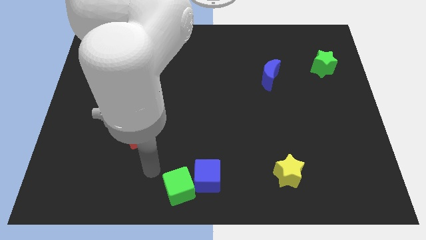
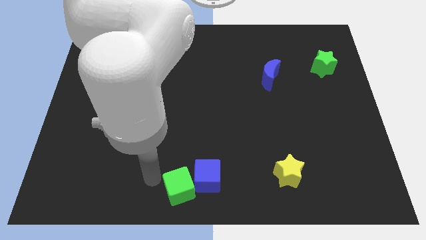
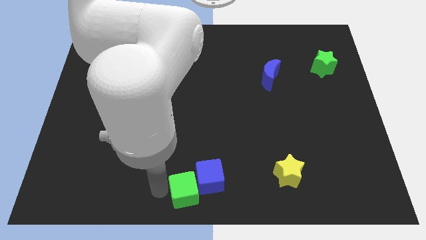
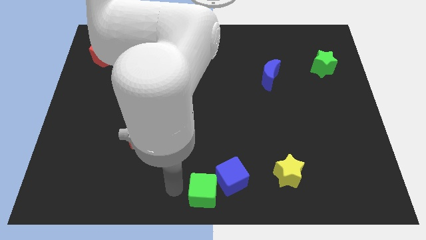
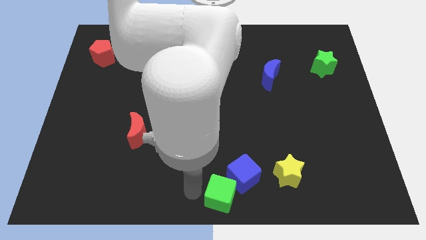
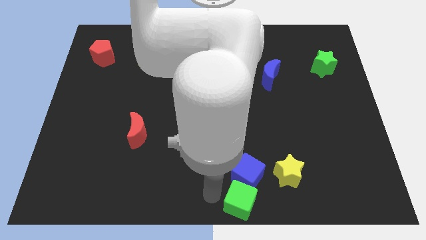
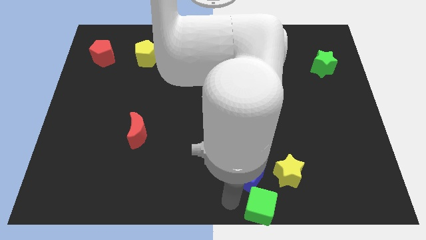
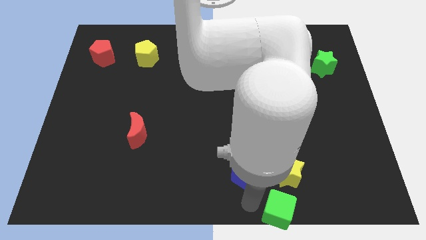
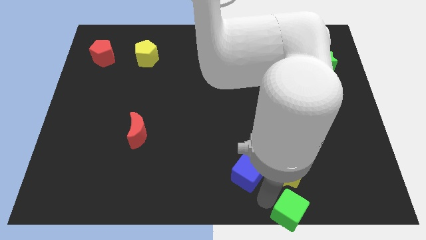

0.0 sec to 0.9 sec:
move the blue cube away from the green cube

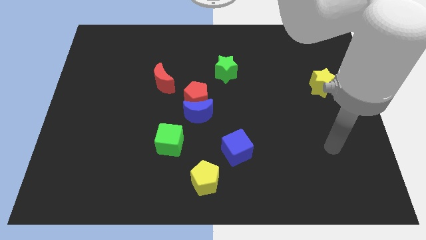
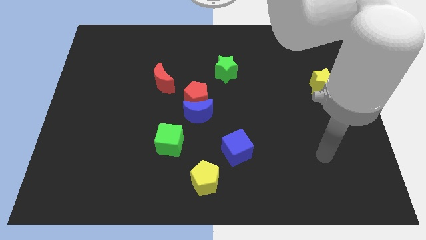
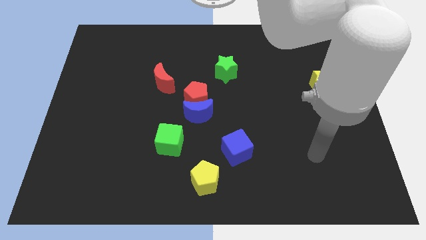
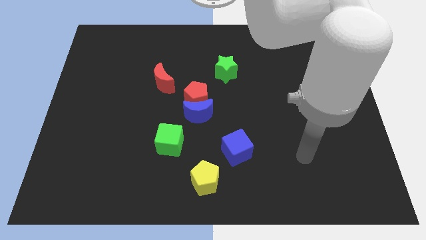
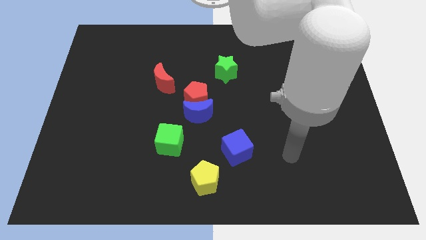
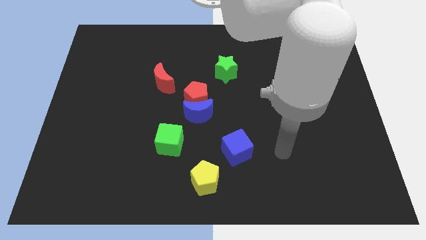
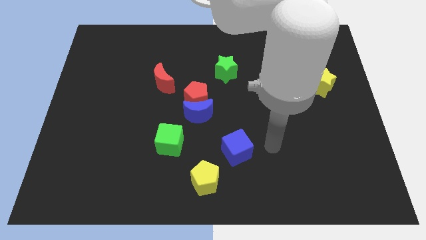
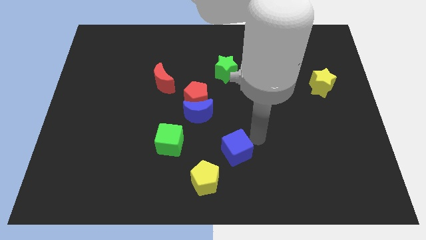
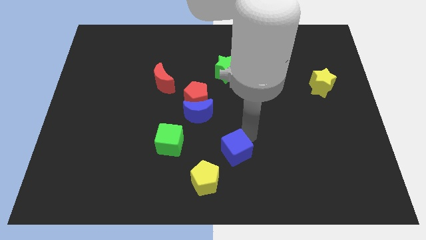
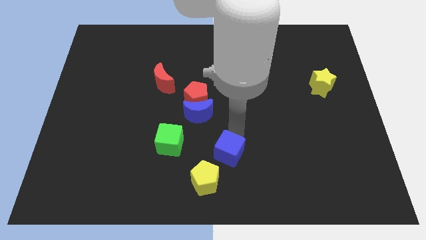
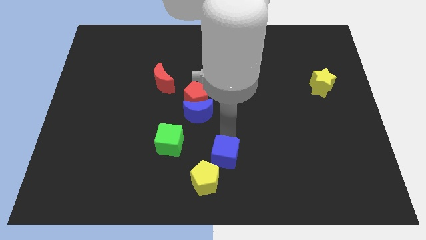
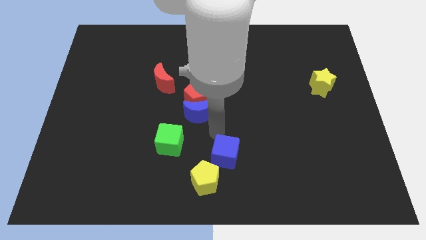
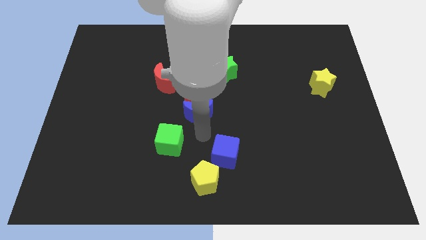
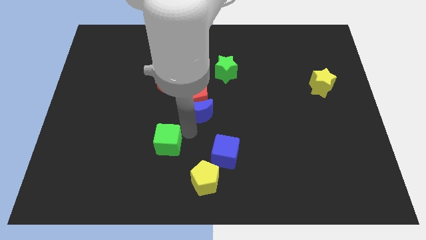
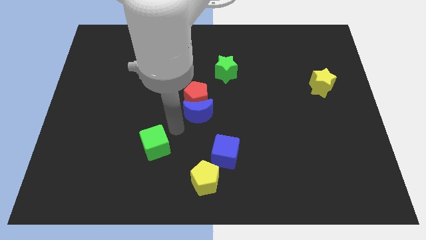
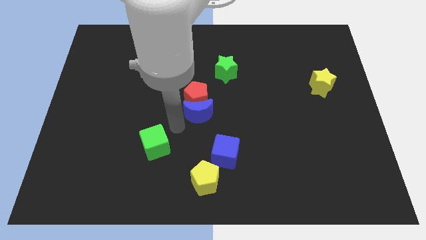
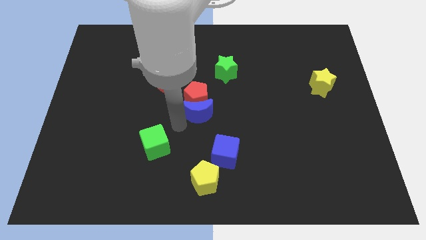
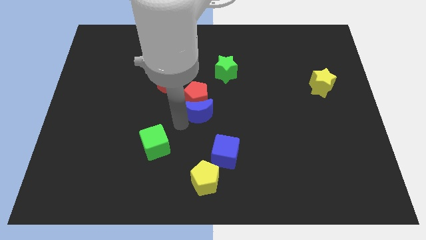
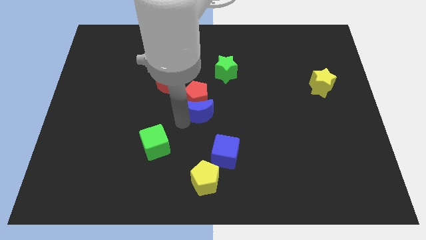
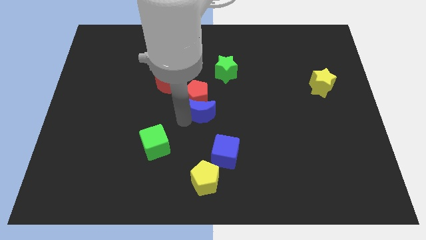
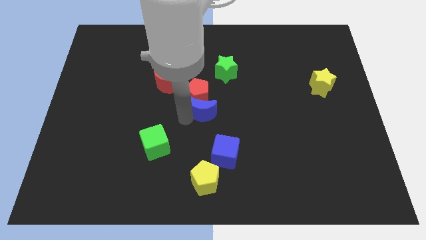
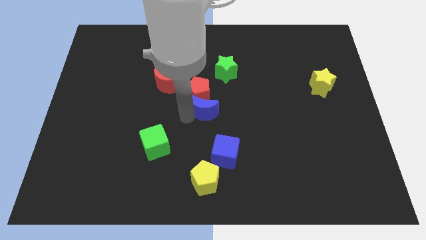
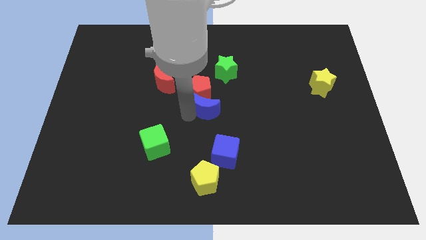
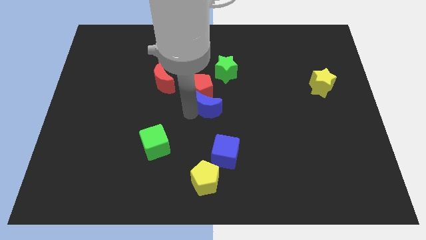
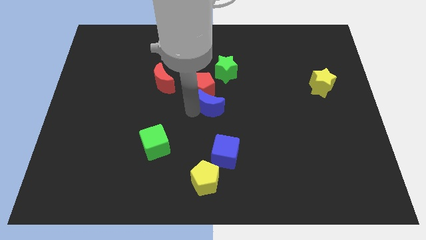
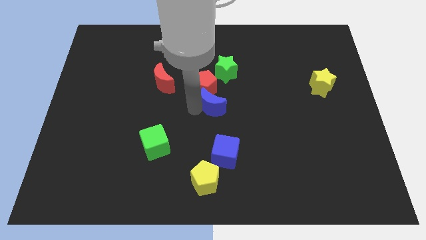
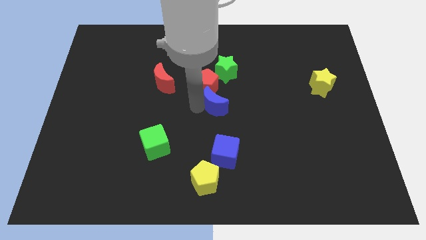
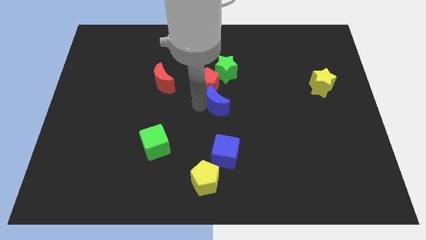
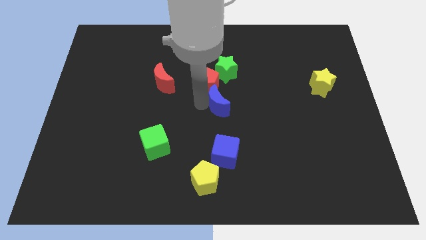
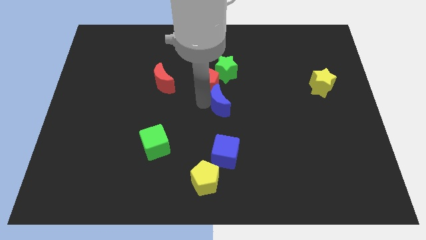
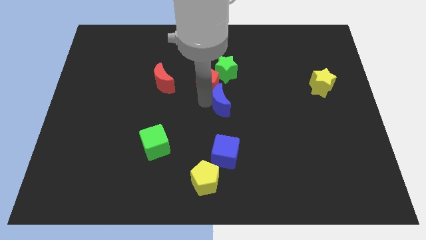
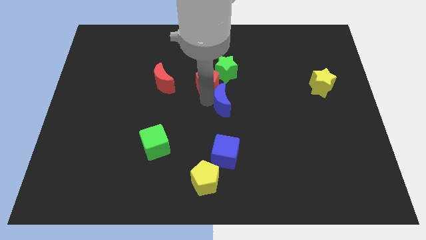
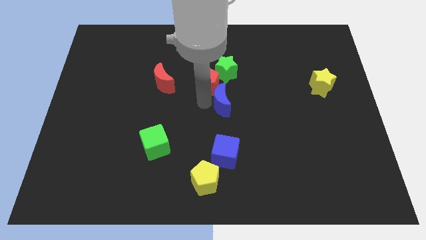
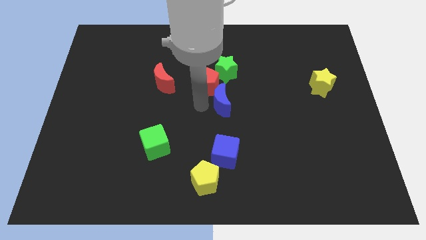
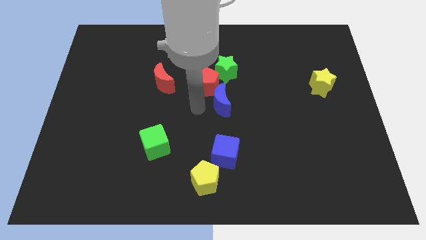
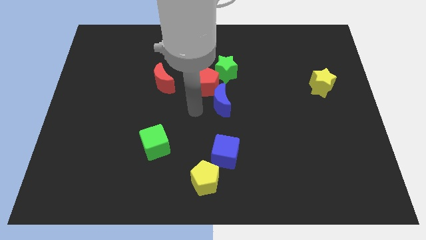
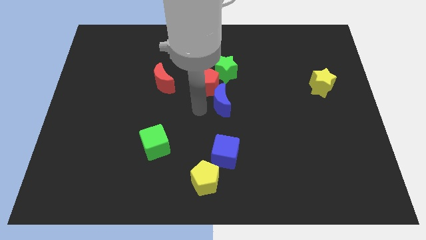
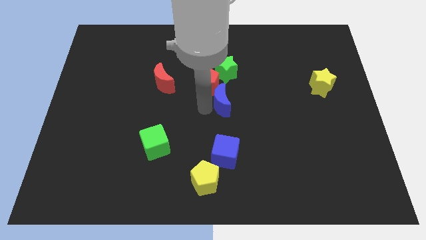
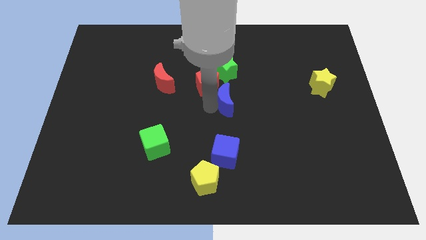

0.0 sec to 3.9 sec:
separate the blue moon from the red pentagon and green cube

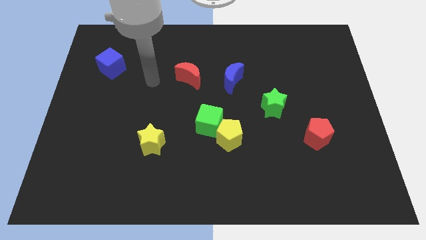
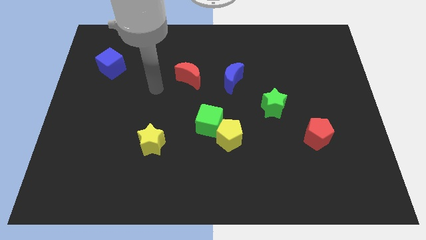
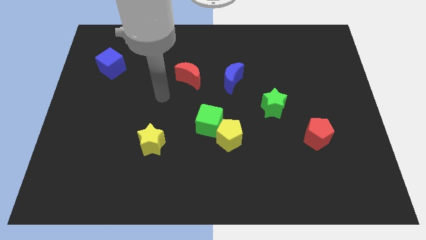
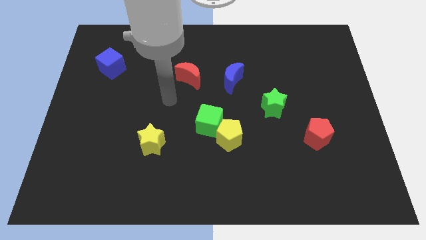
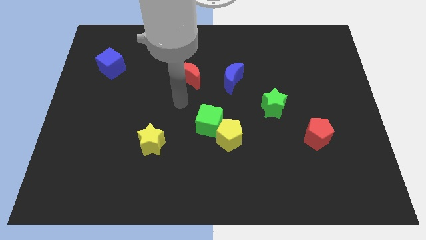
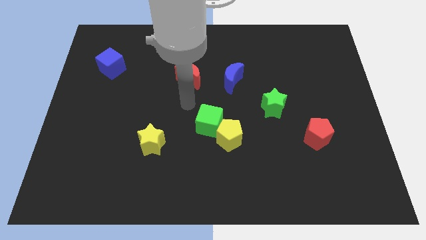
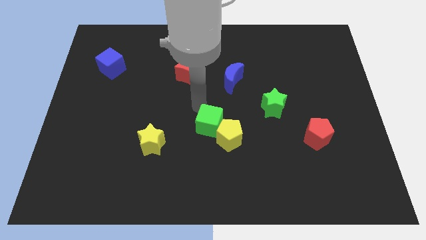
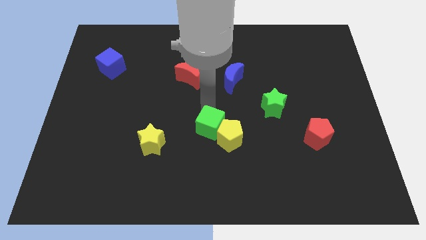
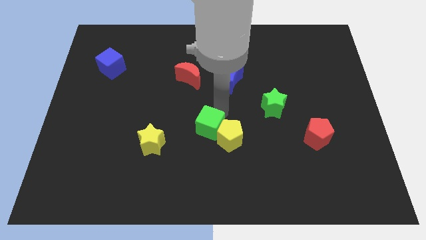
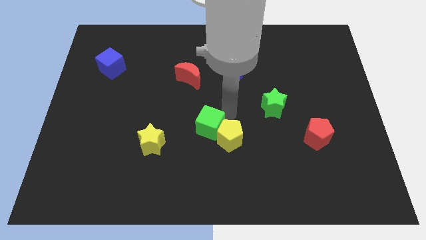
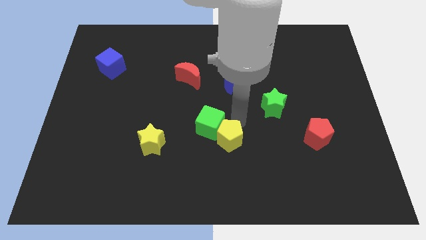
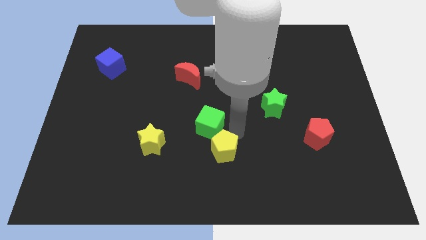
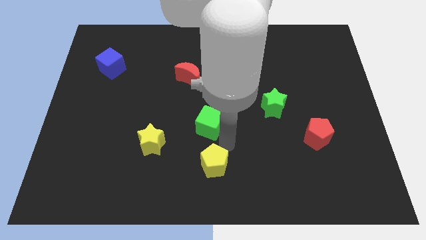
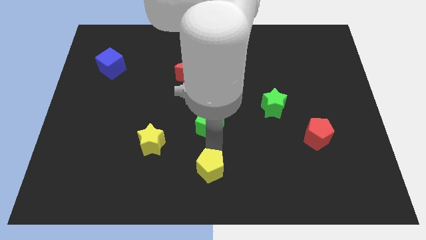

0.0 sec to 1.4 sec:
separate the green cube from the yellow pentagon

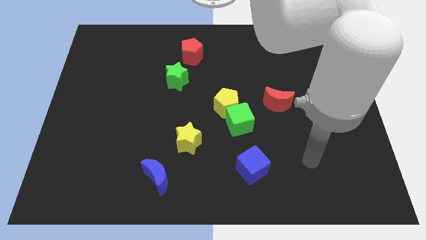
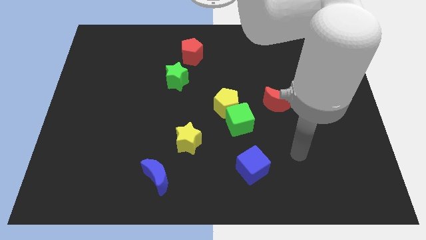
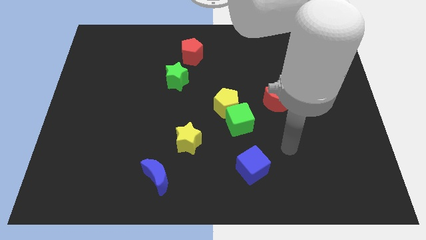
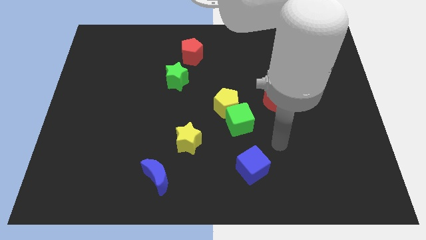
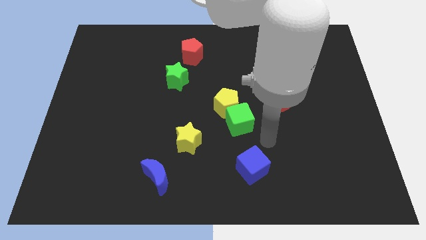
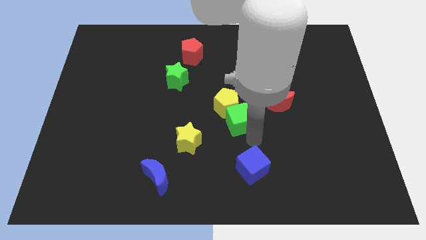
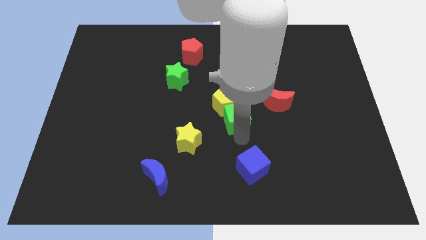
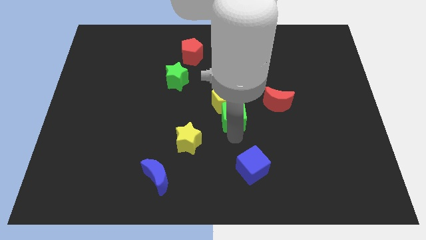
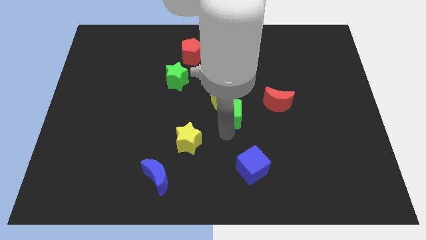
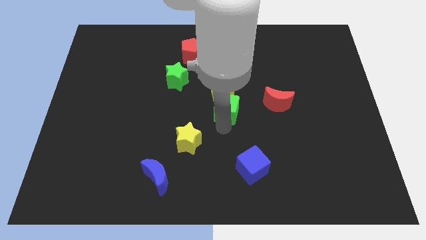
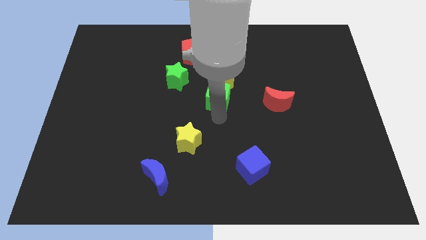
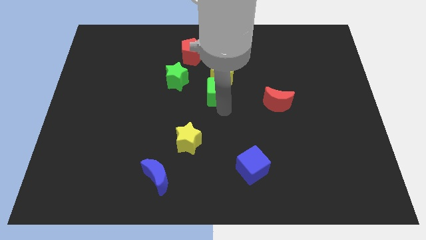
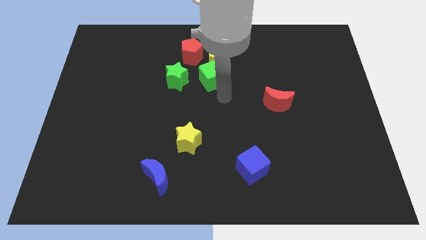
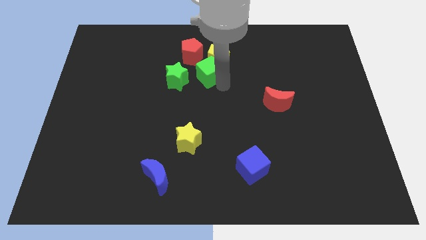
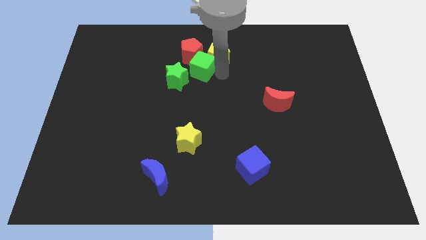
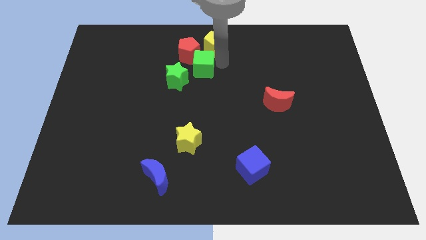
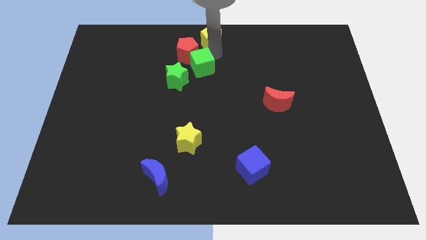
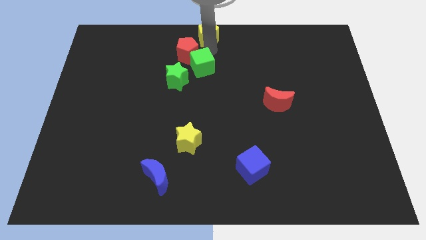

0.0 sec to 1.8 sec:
move the green cube away from the yellow pentagon

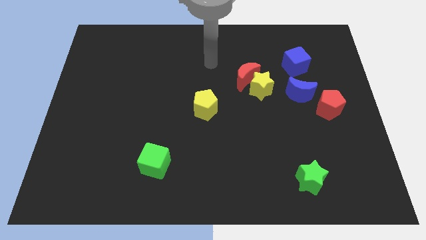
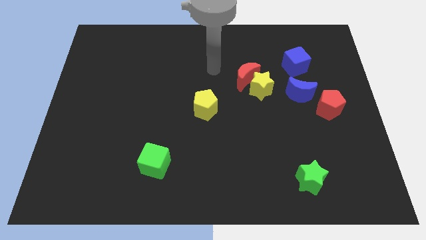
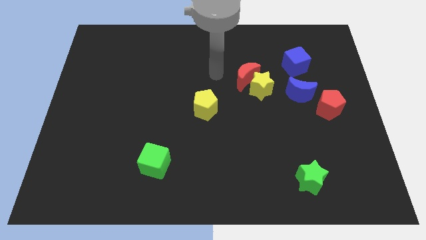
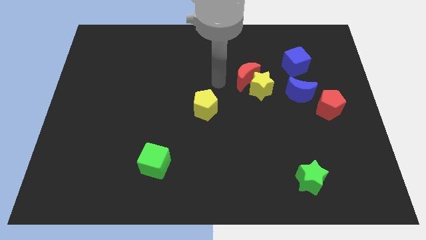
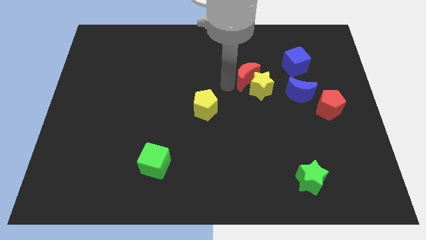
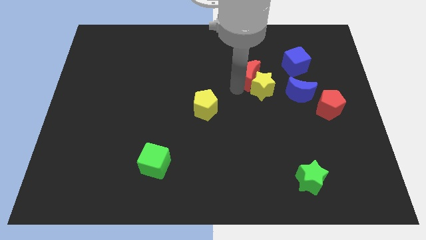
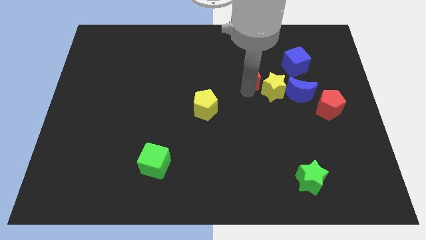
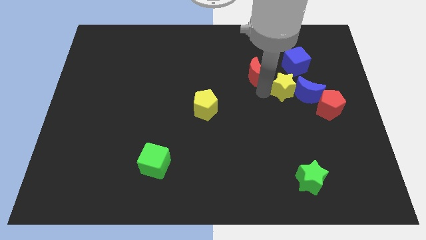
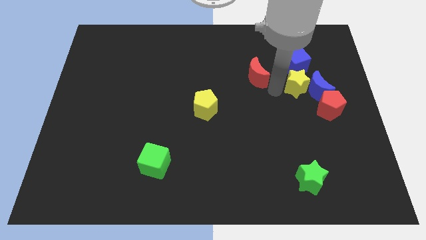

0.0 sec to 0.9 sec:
separate the red moon from the yellow star

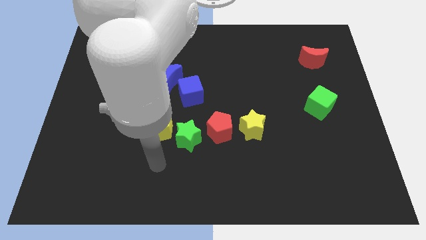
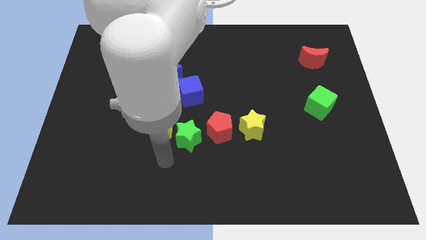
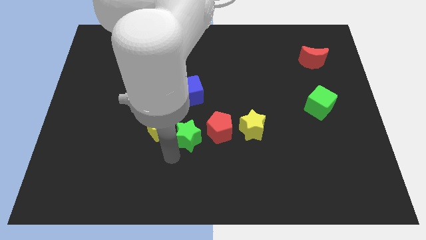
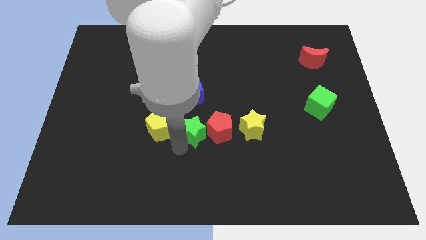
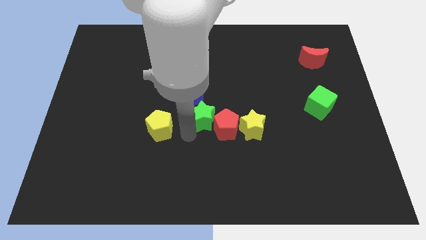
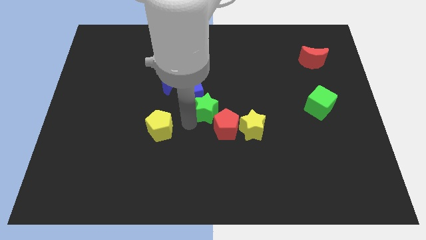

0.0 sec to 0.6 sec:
move the yellow pentagon away from the green star
